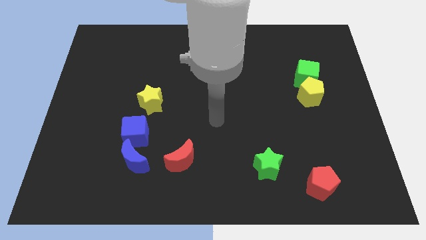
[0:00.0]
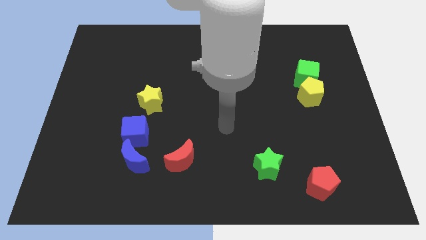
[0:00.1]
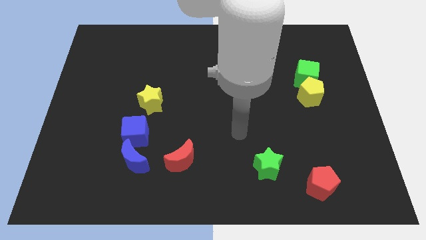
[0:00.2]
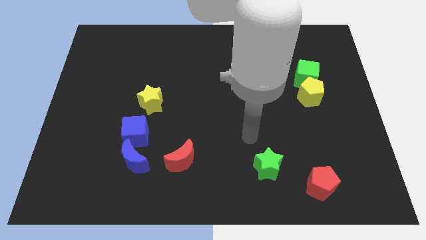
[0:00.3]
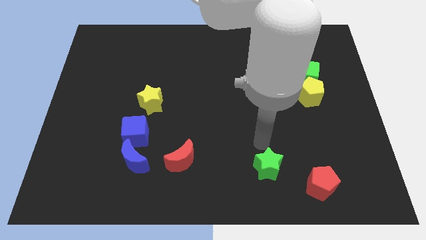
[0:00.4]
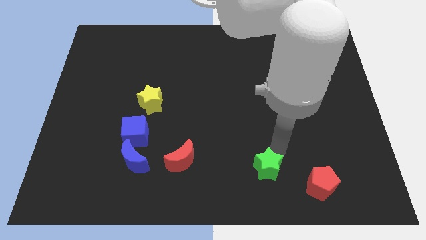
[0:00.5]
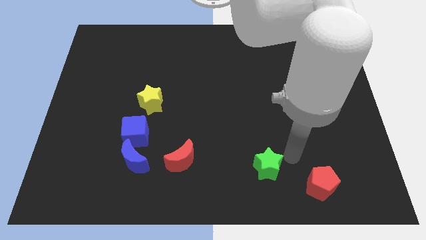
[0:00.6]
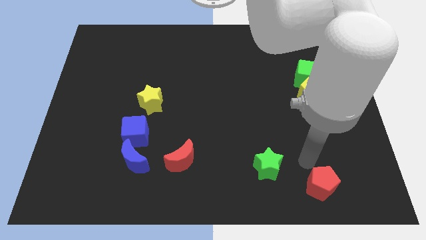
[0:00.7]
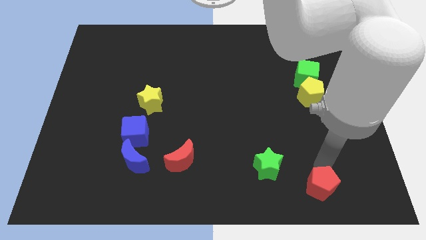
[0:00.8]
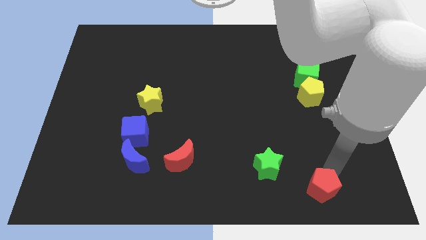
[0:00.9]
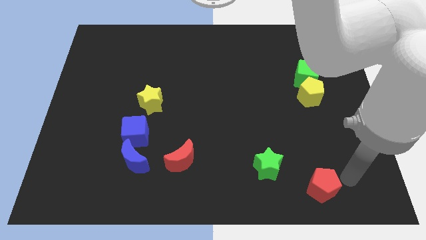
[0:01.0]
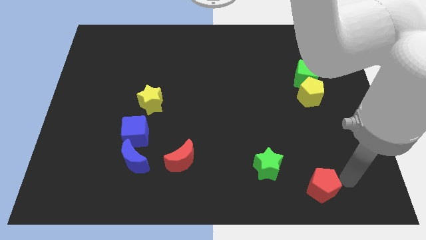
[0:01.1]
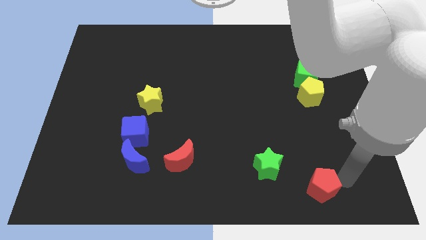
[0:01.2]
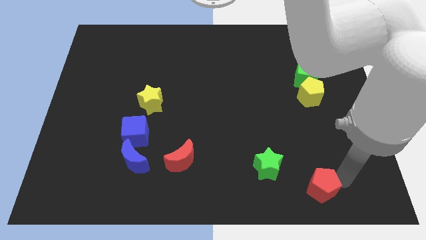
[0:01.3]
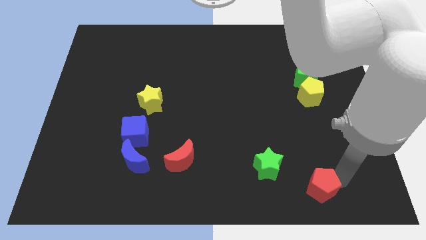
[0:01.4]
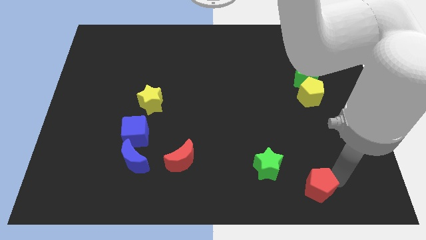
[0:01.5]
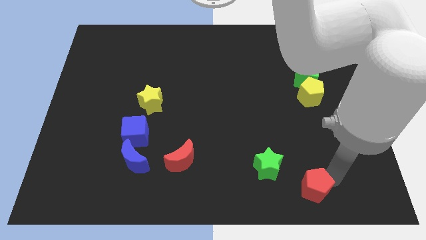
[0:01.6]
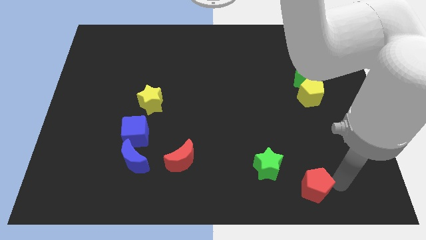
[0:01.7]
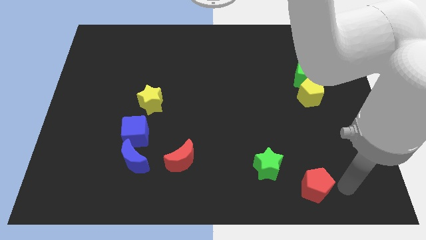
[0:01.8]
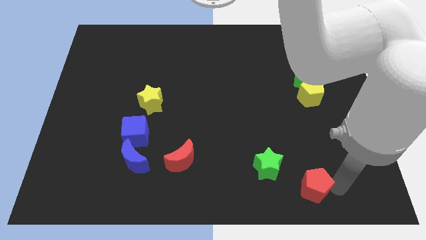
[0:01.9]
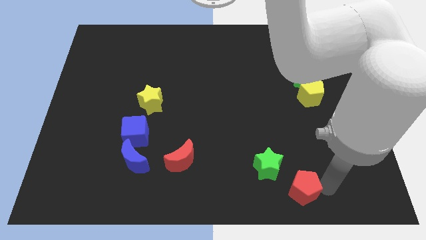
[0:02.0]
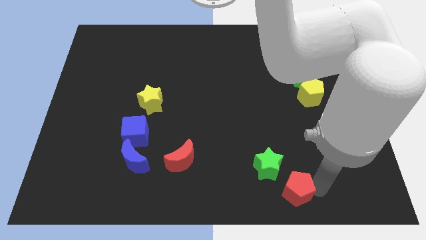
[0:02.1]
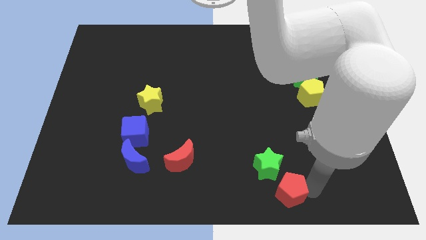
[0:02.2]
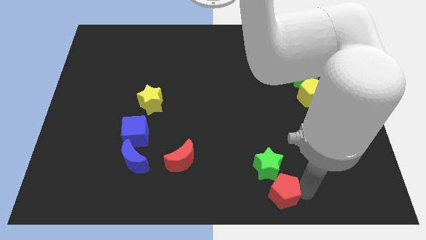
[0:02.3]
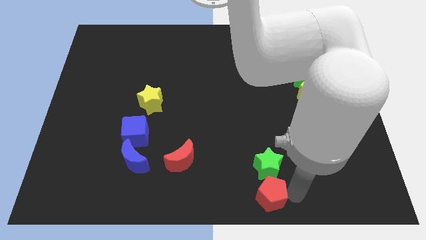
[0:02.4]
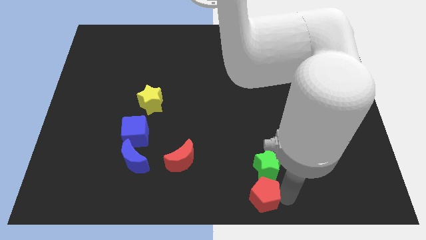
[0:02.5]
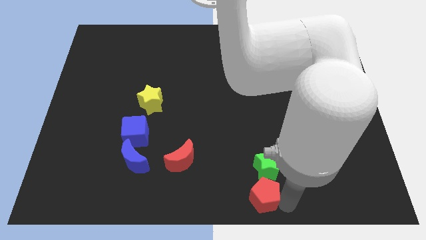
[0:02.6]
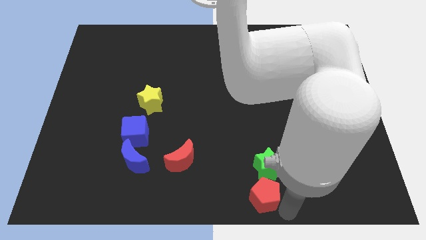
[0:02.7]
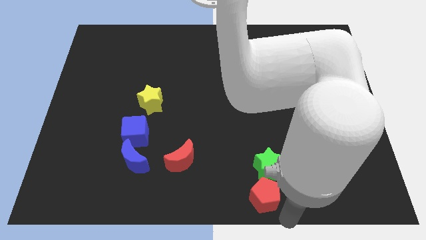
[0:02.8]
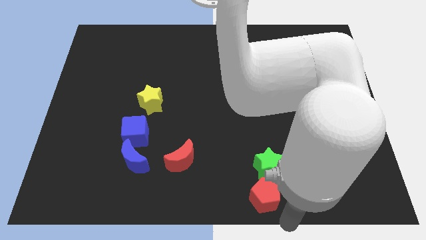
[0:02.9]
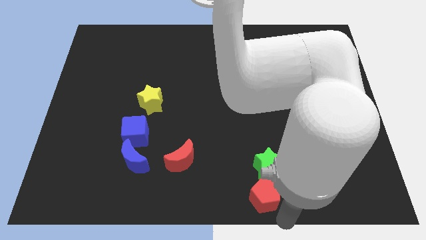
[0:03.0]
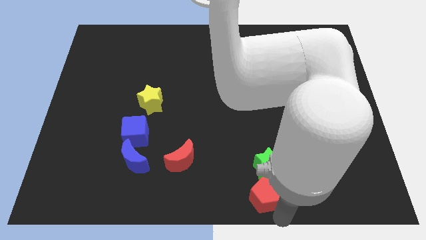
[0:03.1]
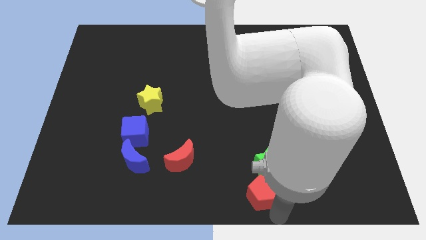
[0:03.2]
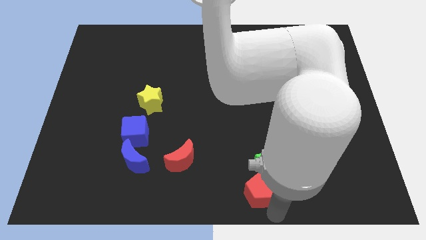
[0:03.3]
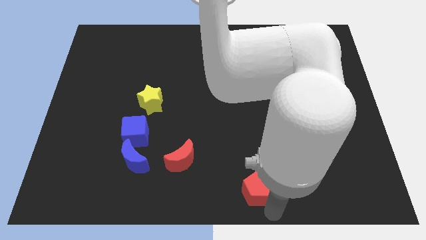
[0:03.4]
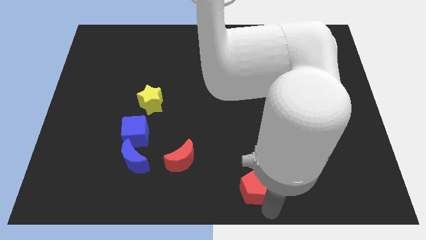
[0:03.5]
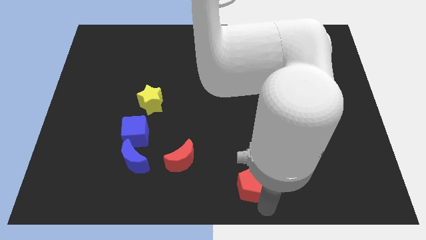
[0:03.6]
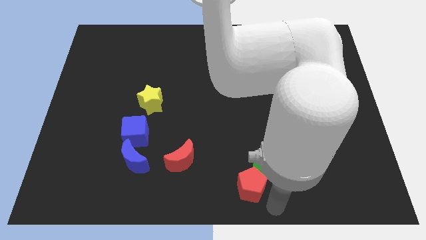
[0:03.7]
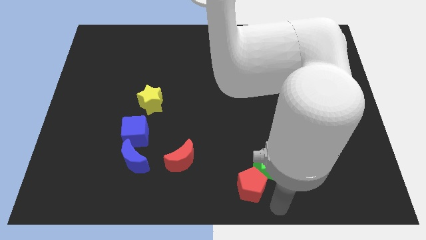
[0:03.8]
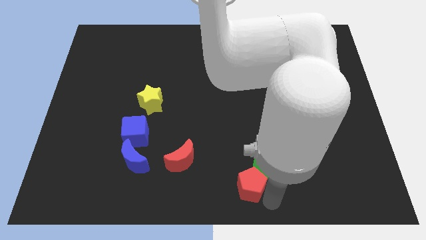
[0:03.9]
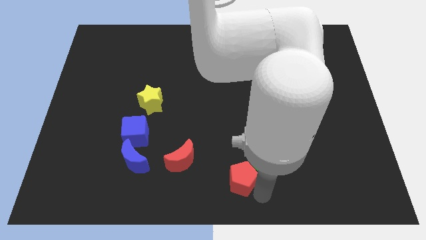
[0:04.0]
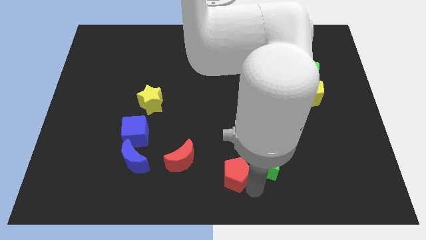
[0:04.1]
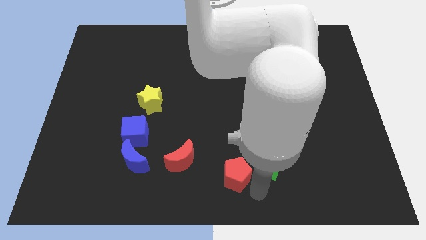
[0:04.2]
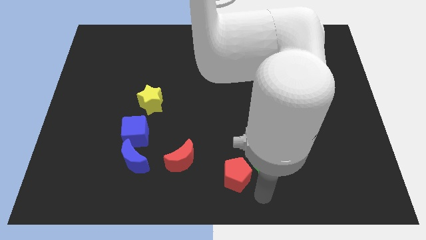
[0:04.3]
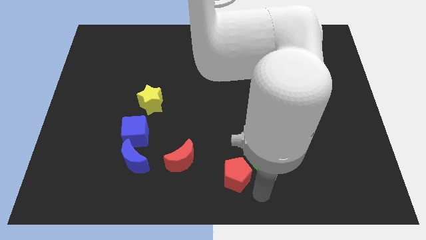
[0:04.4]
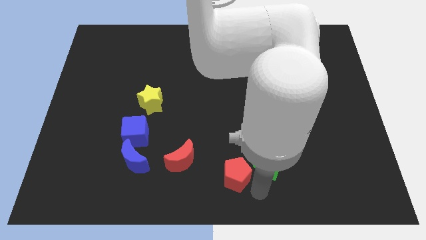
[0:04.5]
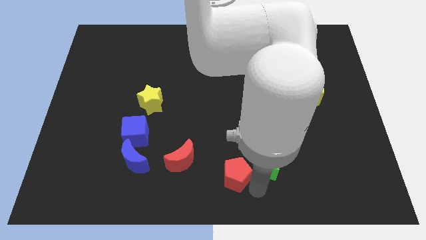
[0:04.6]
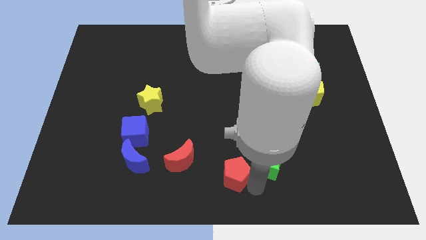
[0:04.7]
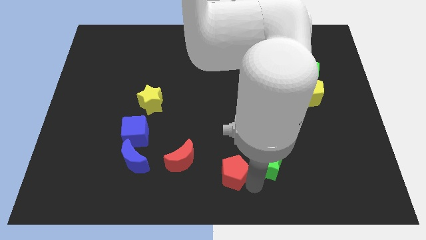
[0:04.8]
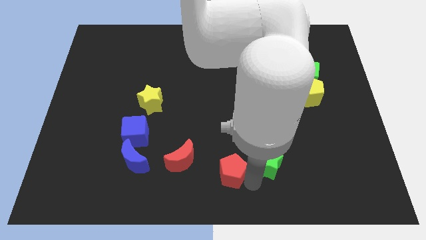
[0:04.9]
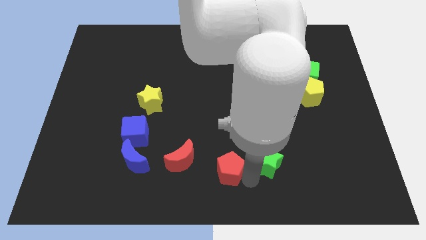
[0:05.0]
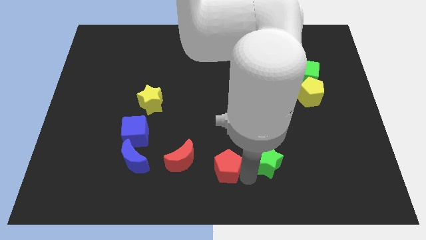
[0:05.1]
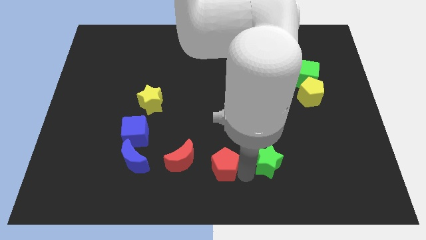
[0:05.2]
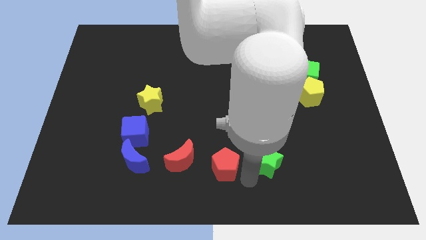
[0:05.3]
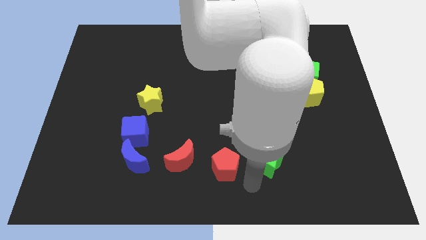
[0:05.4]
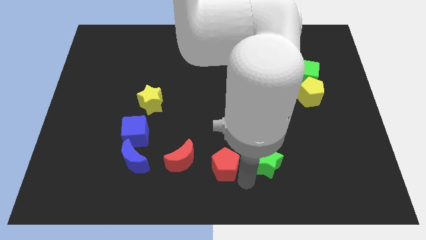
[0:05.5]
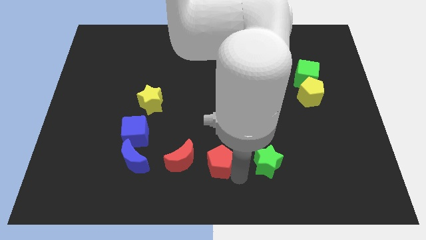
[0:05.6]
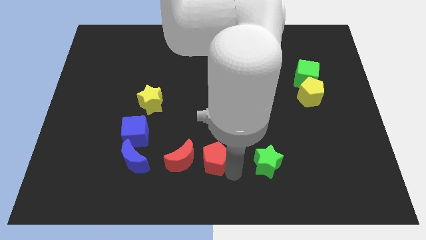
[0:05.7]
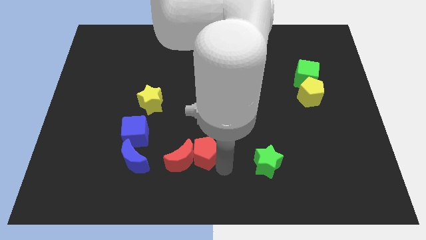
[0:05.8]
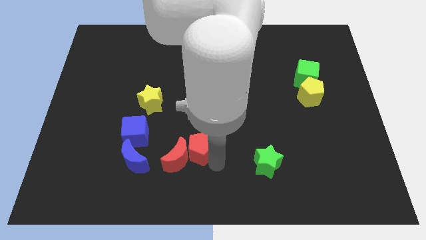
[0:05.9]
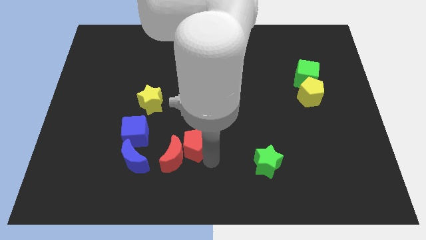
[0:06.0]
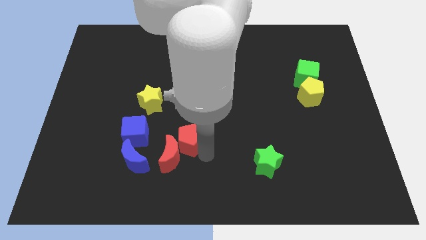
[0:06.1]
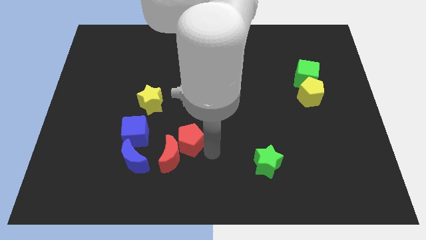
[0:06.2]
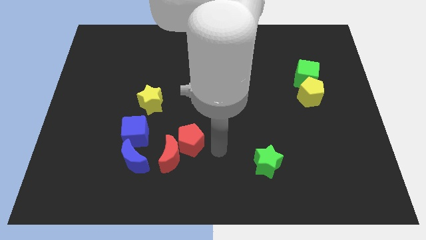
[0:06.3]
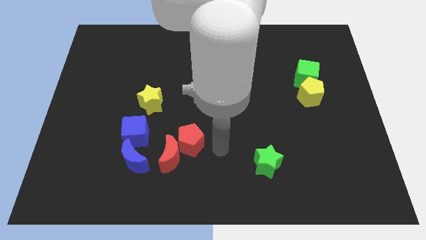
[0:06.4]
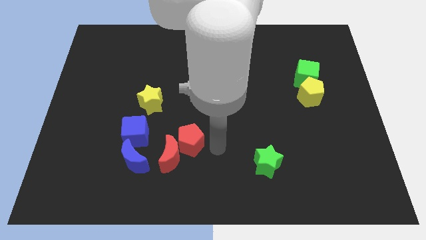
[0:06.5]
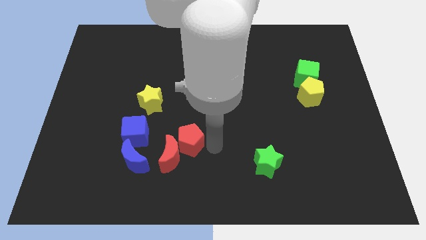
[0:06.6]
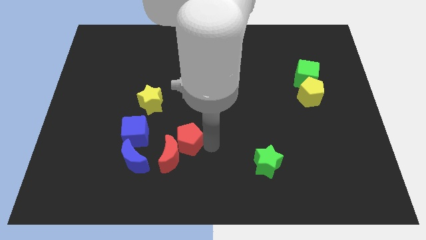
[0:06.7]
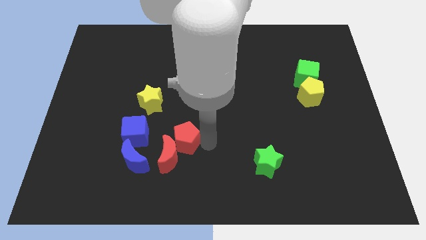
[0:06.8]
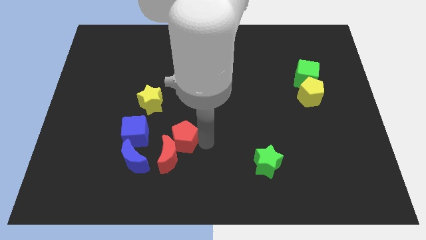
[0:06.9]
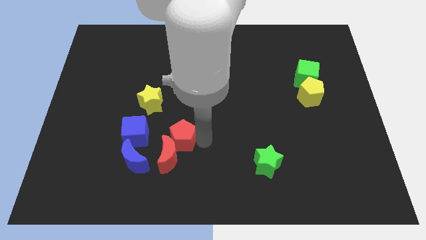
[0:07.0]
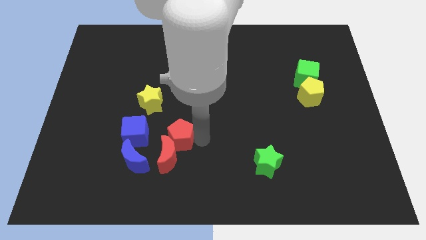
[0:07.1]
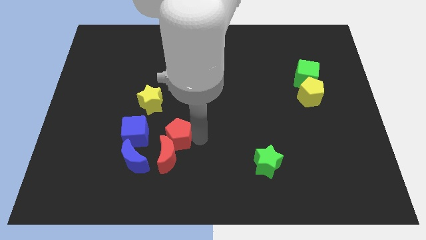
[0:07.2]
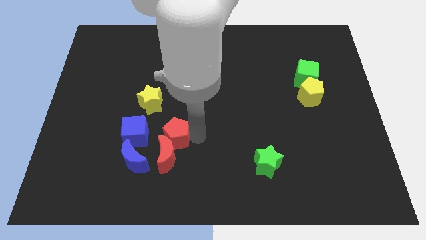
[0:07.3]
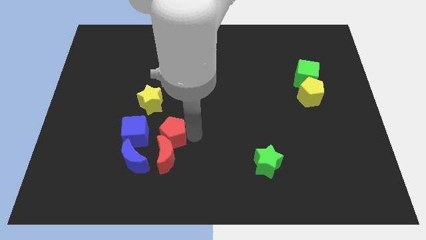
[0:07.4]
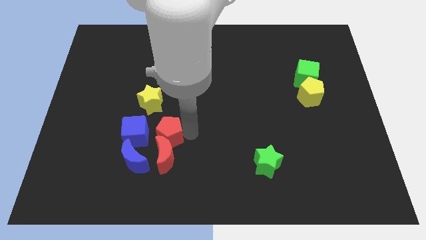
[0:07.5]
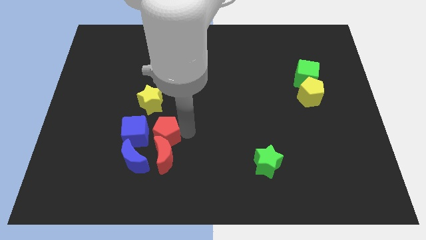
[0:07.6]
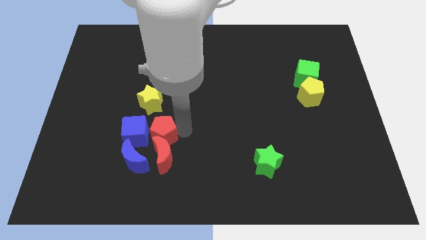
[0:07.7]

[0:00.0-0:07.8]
slide the red pentagon next to the blue cube

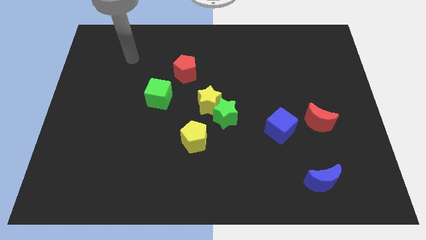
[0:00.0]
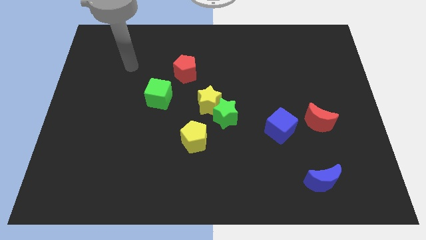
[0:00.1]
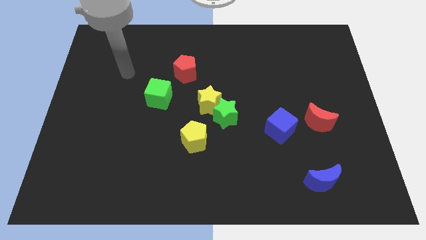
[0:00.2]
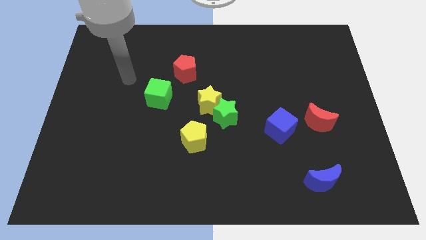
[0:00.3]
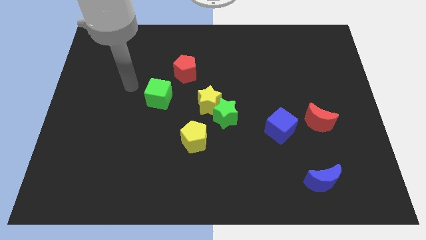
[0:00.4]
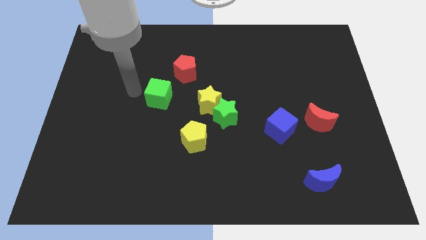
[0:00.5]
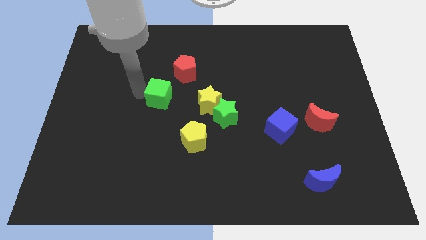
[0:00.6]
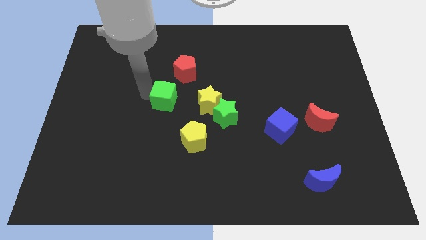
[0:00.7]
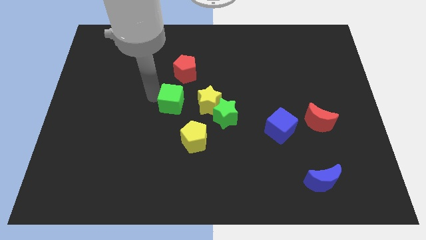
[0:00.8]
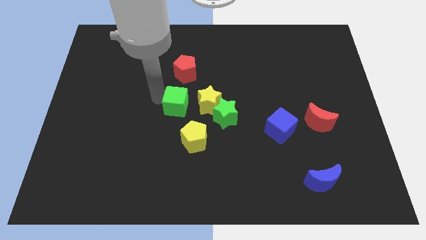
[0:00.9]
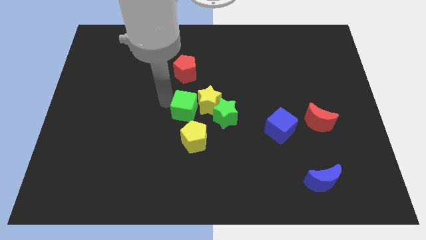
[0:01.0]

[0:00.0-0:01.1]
move the green cube towards the yellow star
